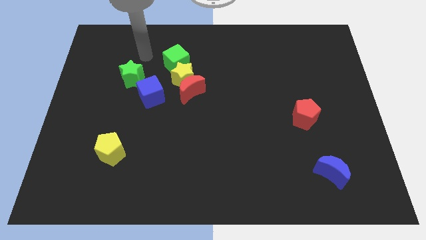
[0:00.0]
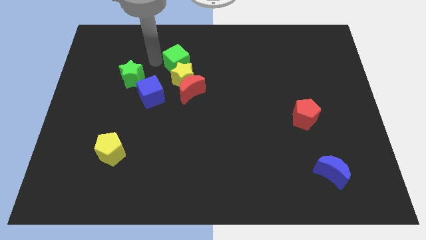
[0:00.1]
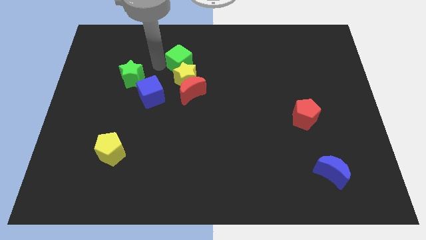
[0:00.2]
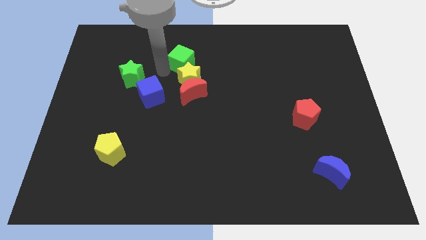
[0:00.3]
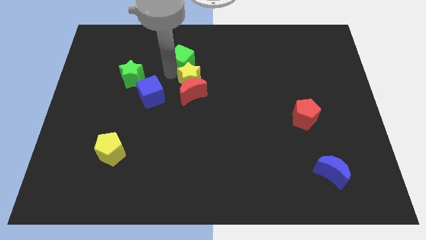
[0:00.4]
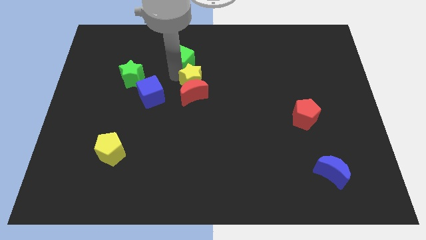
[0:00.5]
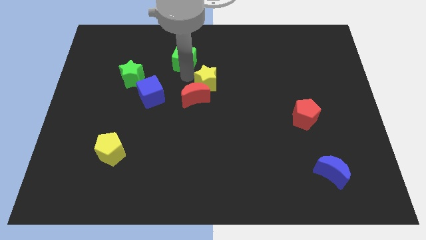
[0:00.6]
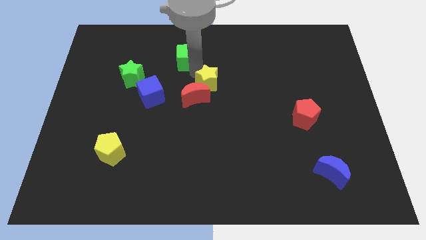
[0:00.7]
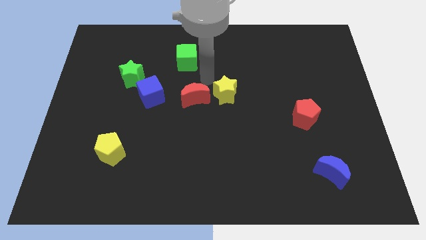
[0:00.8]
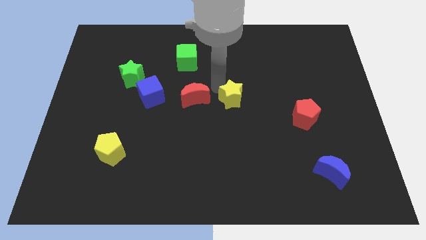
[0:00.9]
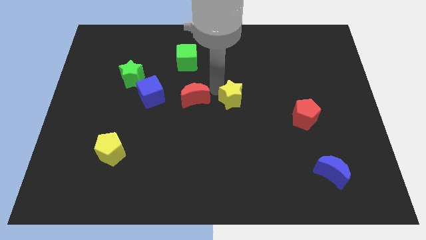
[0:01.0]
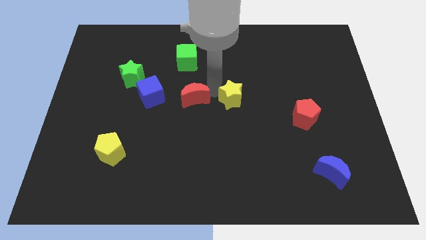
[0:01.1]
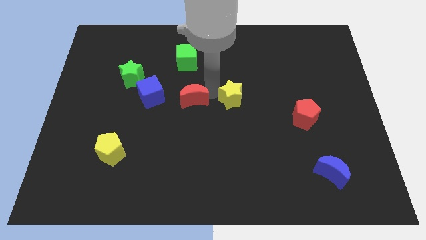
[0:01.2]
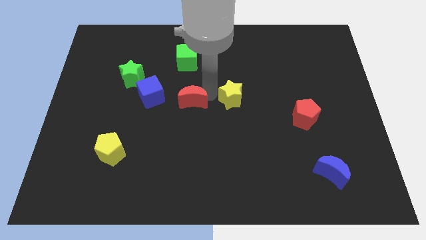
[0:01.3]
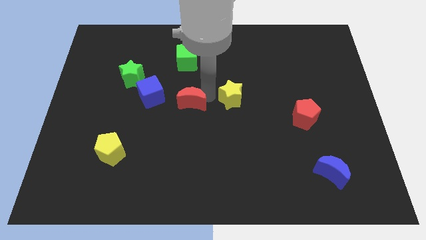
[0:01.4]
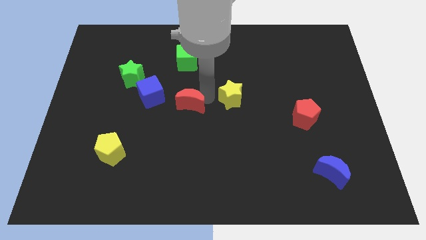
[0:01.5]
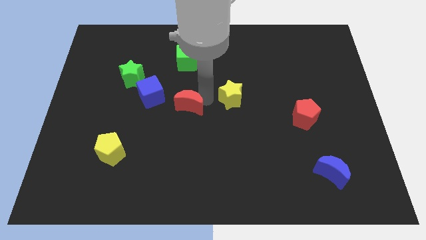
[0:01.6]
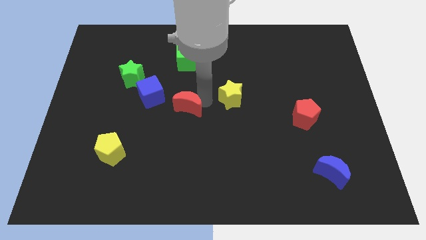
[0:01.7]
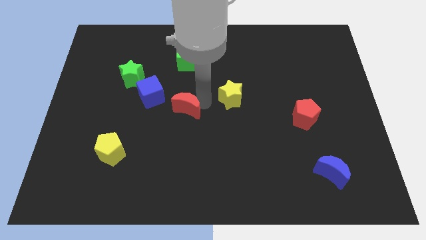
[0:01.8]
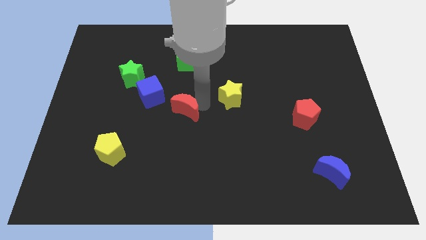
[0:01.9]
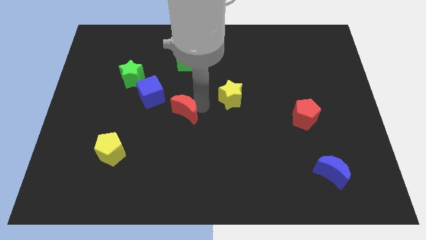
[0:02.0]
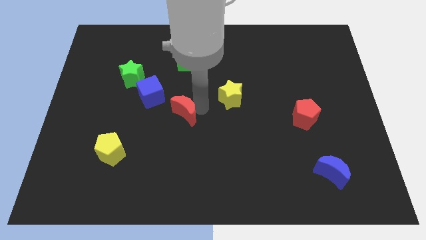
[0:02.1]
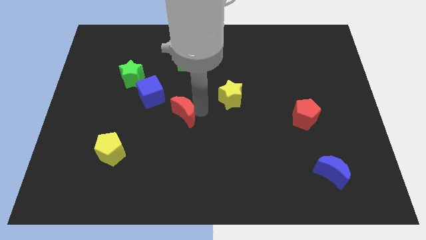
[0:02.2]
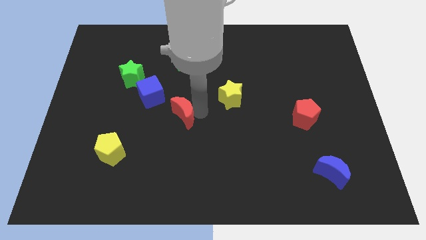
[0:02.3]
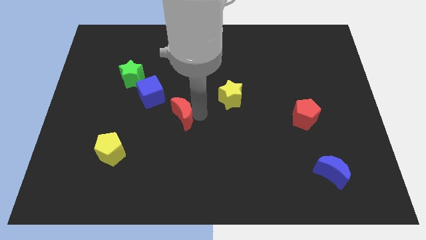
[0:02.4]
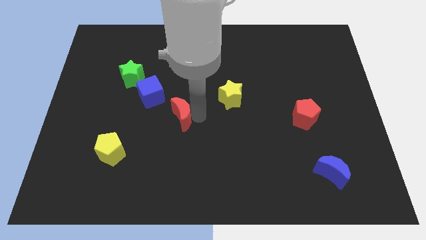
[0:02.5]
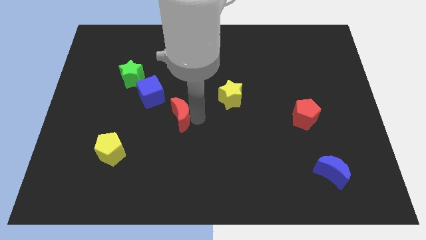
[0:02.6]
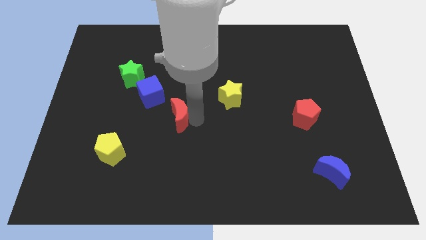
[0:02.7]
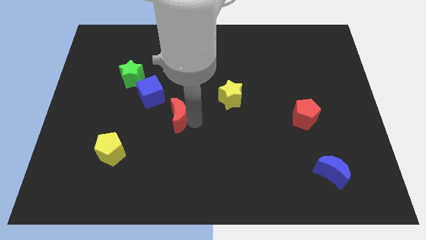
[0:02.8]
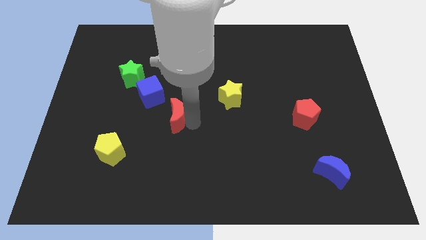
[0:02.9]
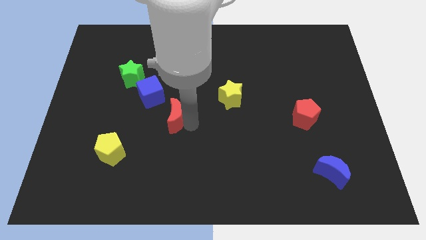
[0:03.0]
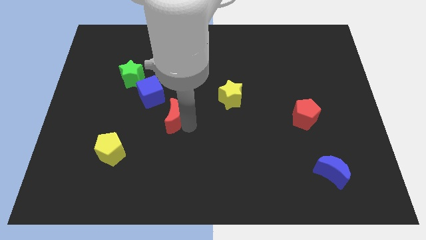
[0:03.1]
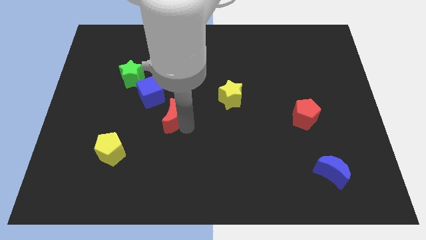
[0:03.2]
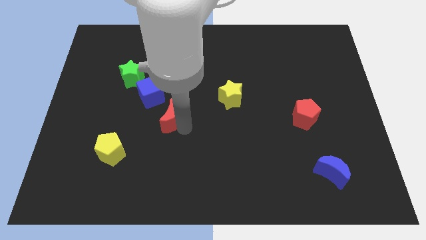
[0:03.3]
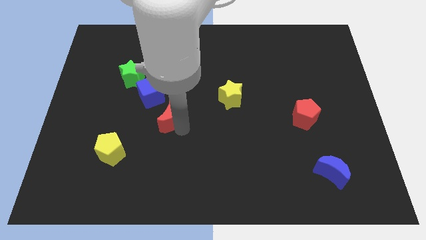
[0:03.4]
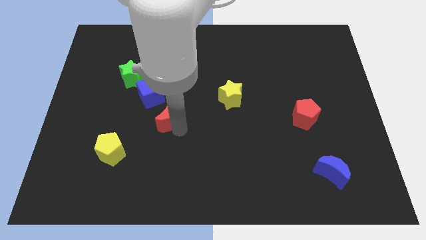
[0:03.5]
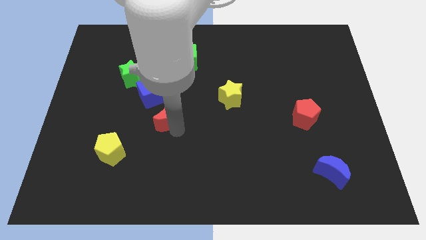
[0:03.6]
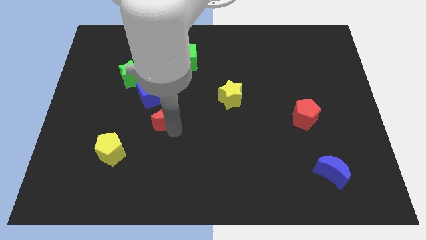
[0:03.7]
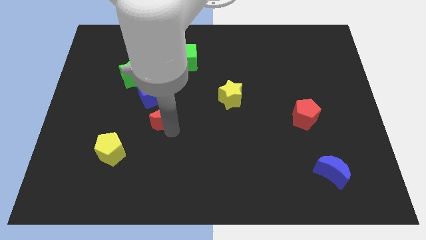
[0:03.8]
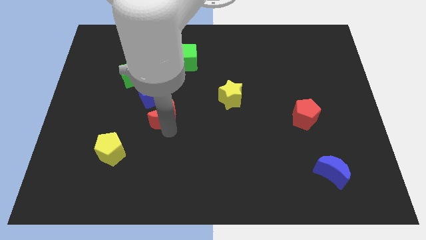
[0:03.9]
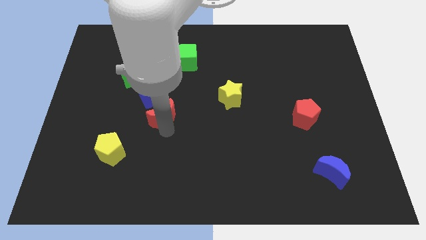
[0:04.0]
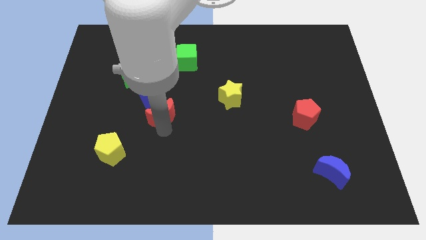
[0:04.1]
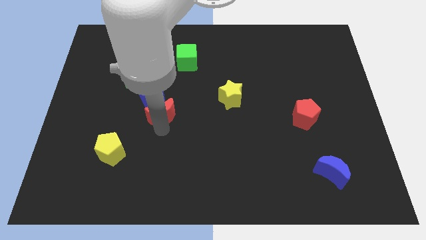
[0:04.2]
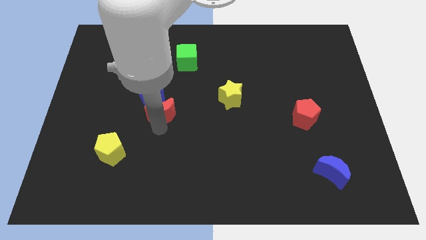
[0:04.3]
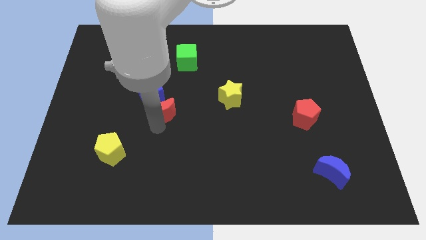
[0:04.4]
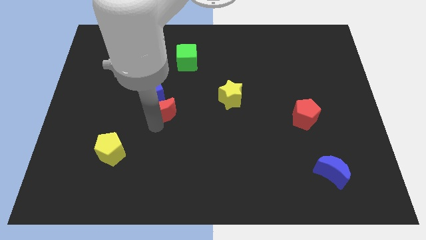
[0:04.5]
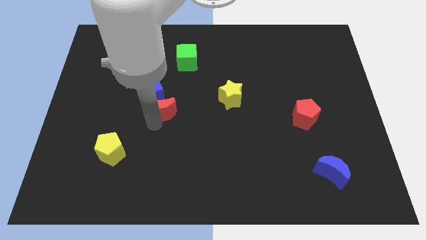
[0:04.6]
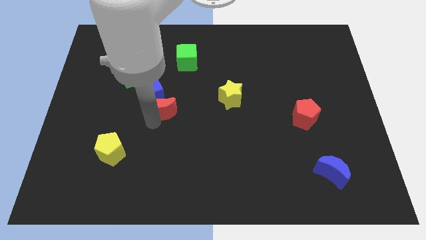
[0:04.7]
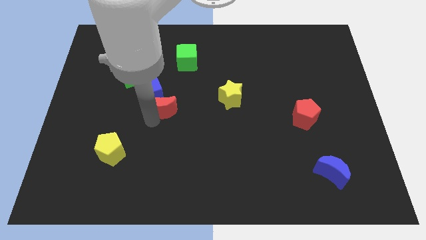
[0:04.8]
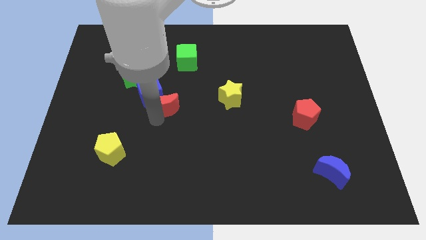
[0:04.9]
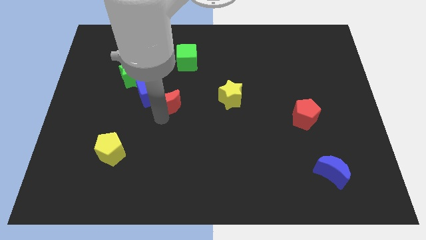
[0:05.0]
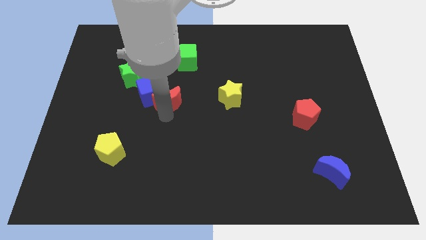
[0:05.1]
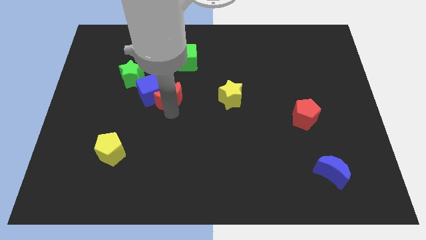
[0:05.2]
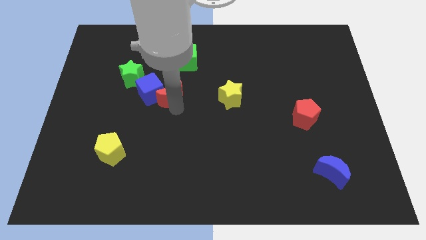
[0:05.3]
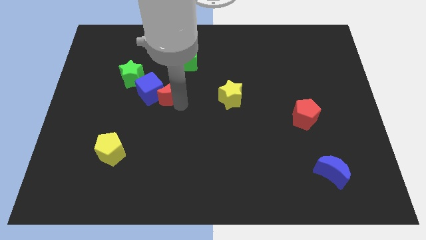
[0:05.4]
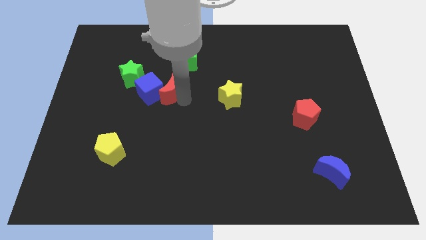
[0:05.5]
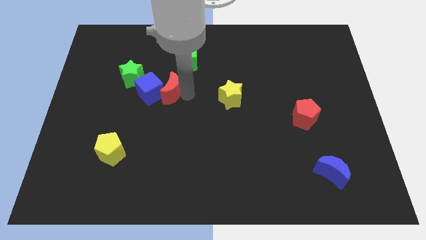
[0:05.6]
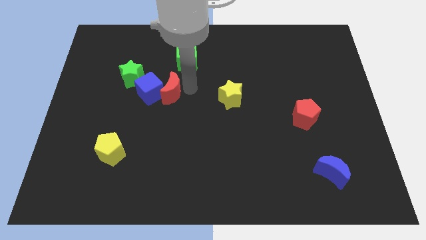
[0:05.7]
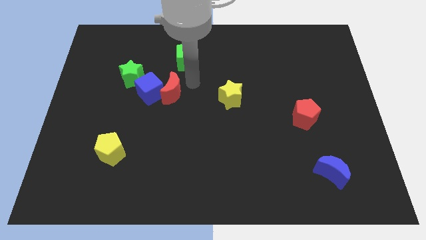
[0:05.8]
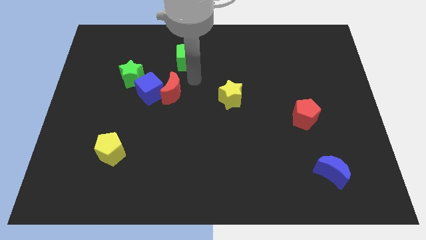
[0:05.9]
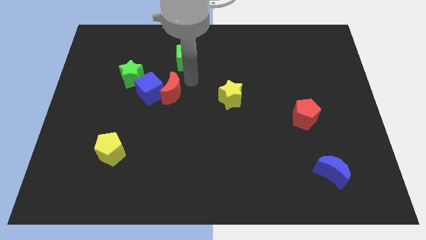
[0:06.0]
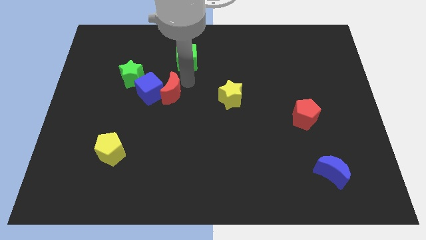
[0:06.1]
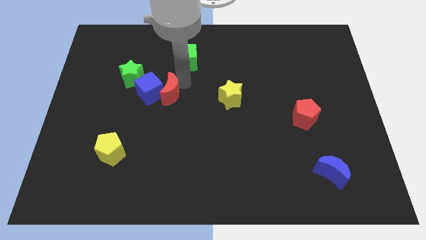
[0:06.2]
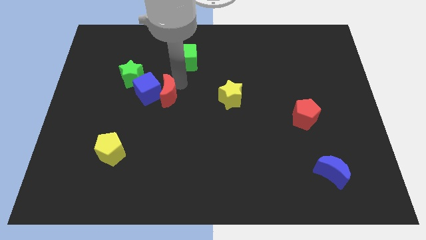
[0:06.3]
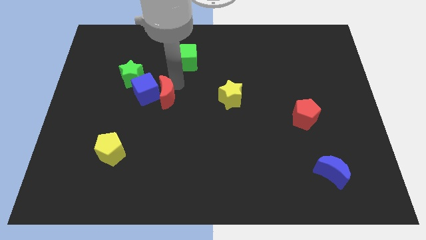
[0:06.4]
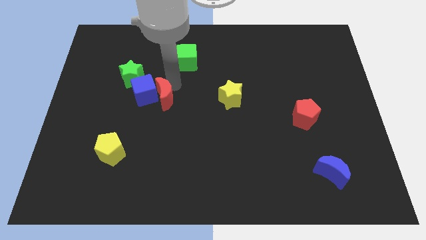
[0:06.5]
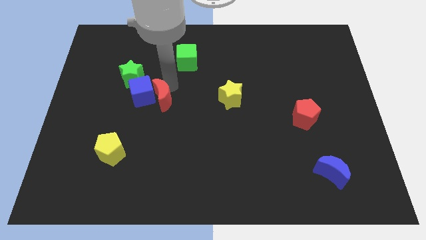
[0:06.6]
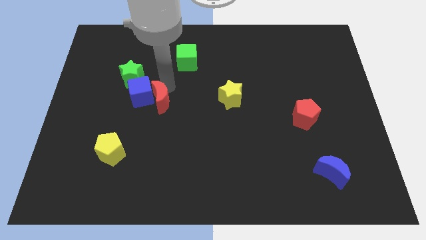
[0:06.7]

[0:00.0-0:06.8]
push the red moon slightly left

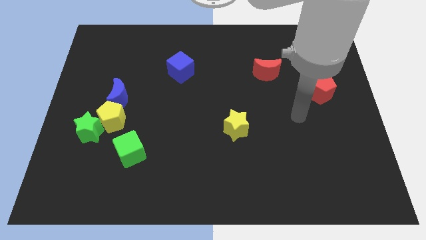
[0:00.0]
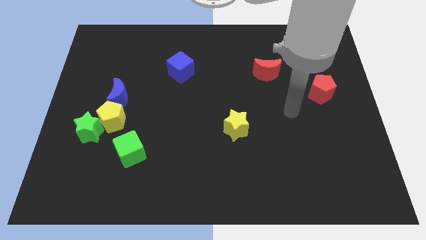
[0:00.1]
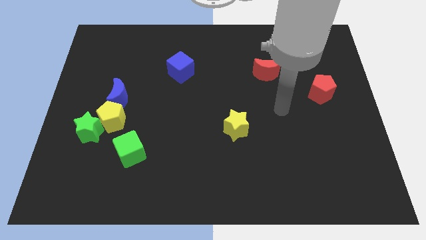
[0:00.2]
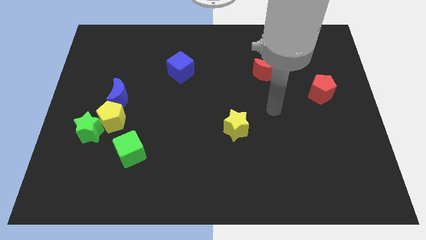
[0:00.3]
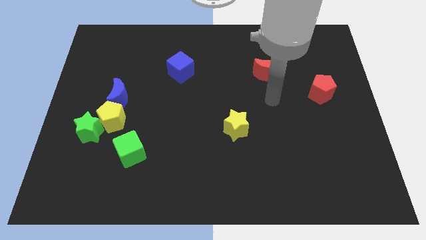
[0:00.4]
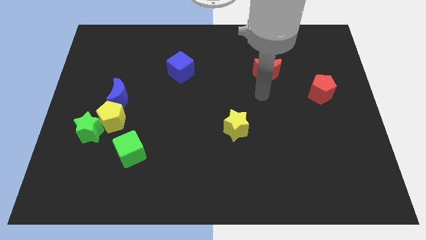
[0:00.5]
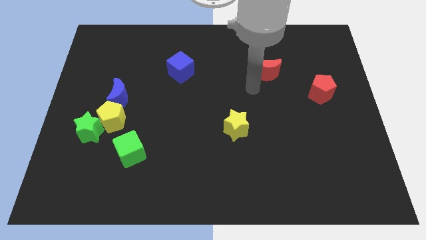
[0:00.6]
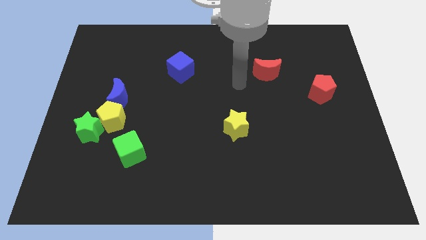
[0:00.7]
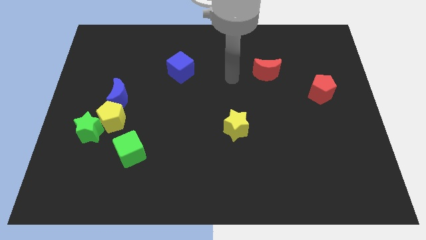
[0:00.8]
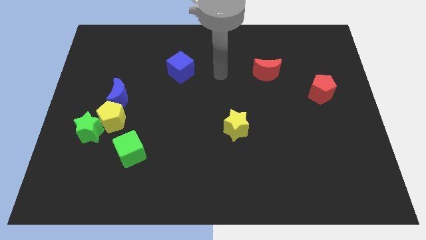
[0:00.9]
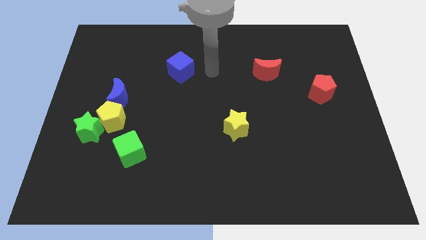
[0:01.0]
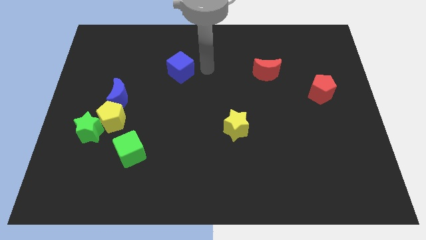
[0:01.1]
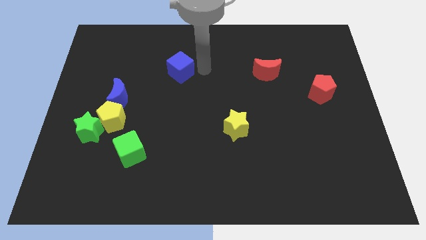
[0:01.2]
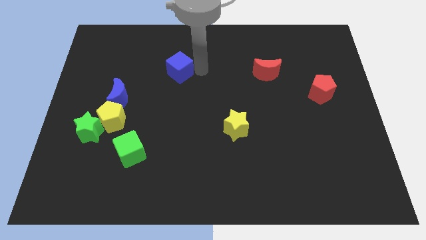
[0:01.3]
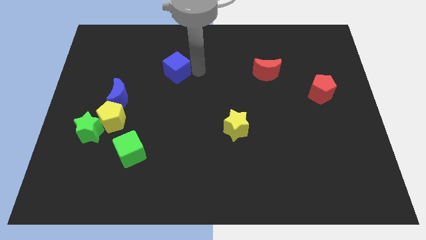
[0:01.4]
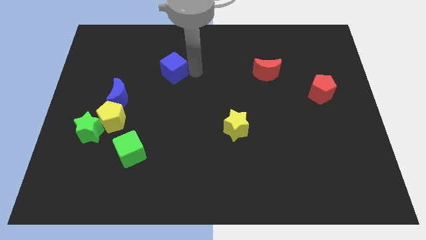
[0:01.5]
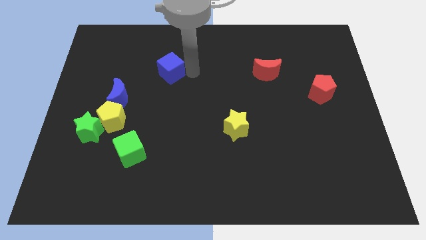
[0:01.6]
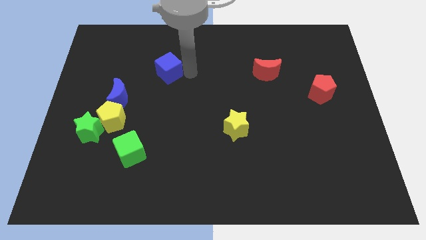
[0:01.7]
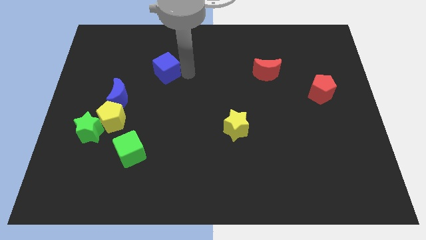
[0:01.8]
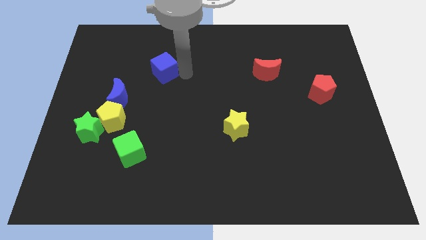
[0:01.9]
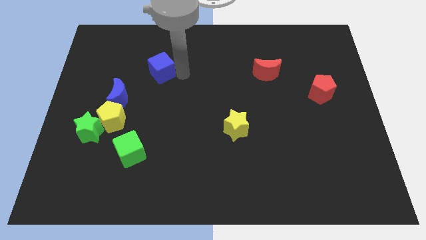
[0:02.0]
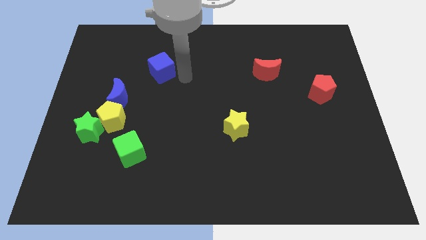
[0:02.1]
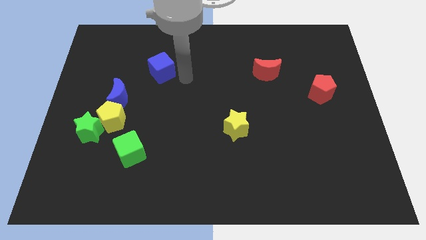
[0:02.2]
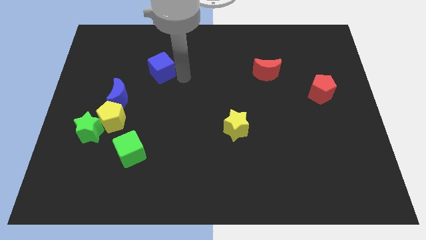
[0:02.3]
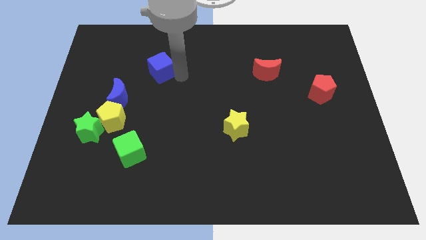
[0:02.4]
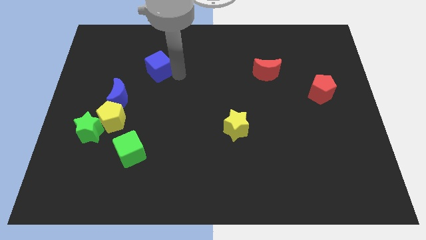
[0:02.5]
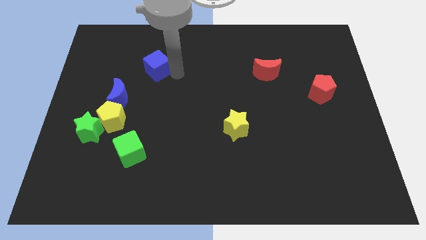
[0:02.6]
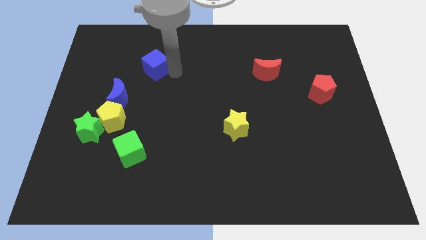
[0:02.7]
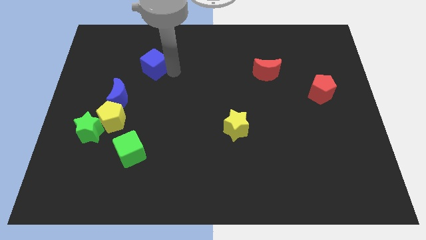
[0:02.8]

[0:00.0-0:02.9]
slightly move the blue cube to the left
